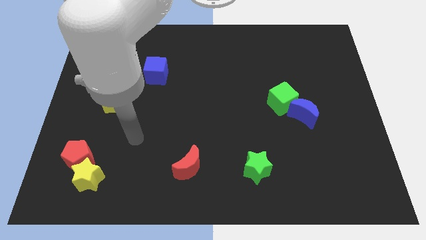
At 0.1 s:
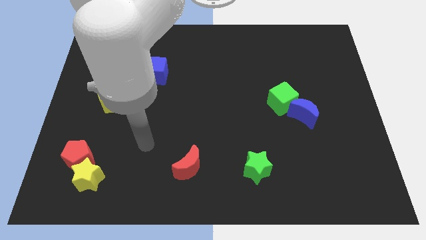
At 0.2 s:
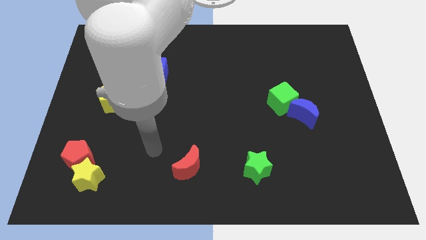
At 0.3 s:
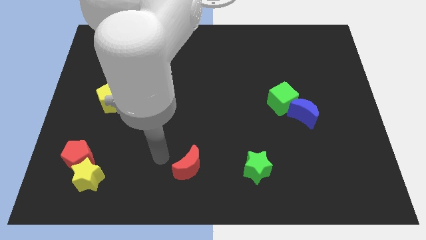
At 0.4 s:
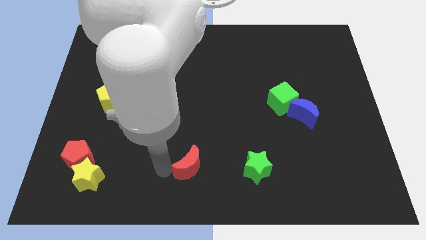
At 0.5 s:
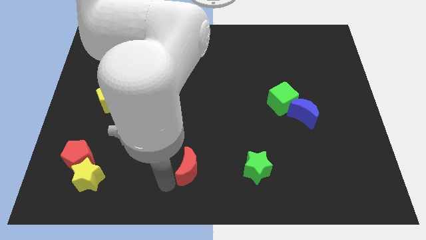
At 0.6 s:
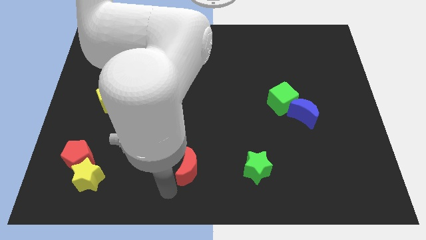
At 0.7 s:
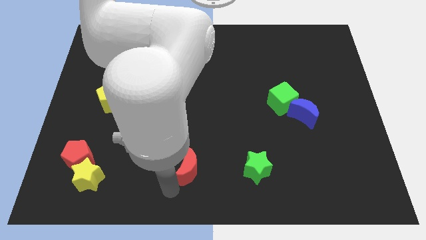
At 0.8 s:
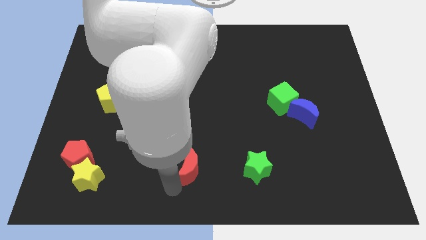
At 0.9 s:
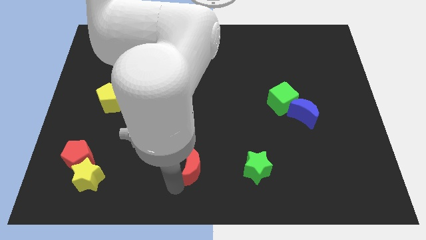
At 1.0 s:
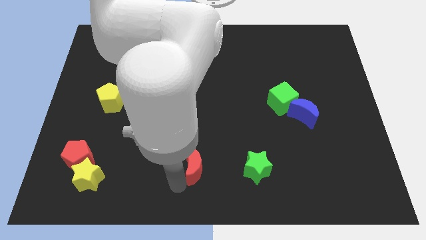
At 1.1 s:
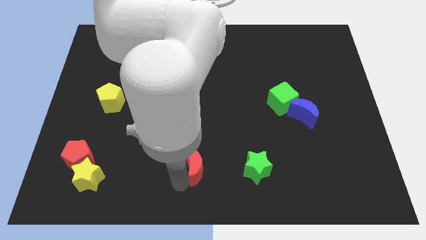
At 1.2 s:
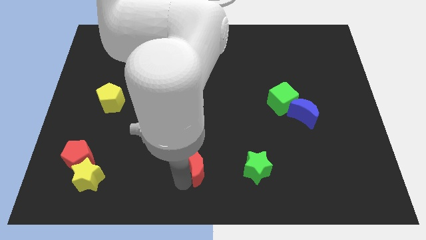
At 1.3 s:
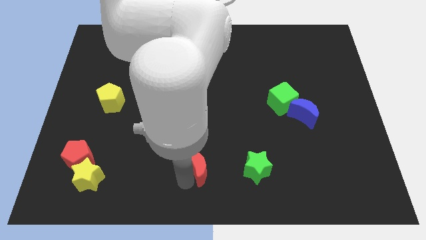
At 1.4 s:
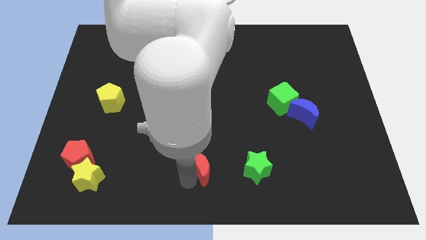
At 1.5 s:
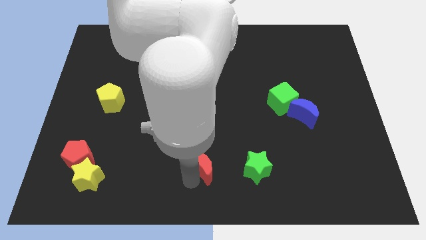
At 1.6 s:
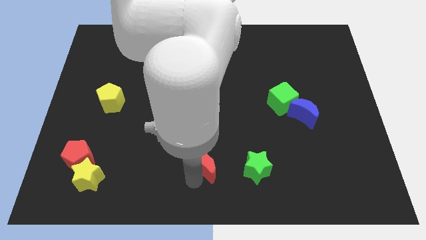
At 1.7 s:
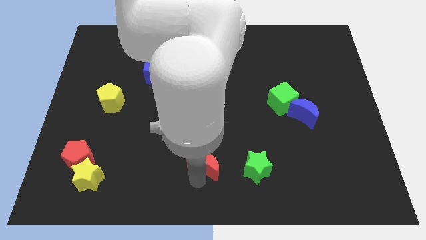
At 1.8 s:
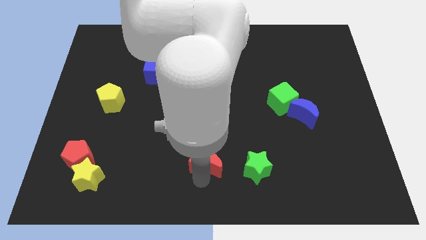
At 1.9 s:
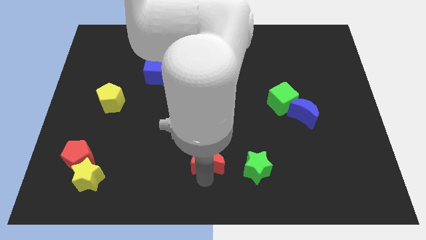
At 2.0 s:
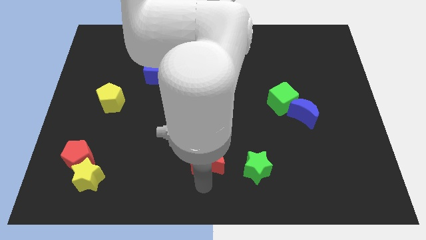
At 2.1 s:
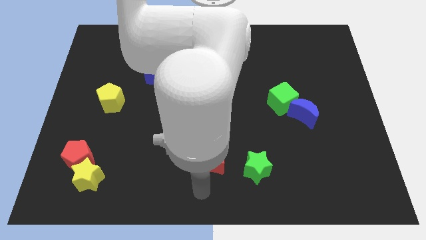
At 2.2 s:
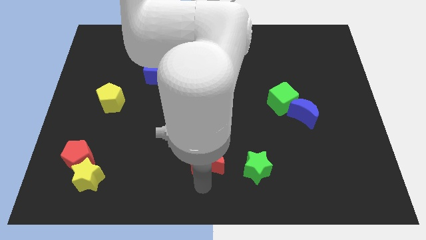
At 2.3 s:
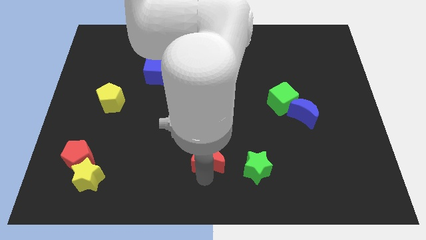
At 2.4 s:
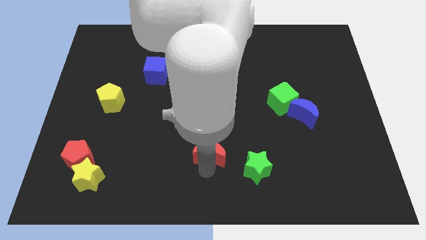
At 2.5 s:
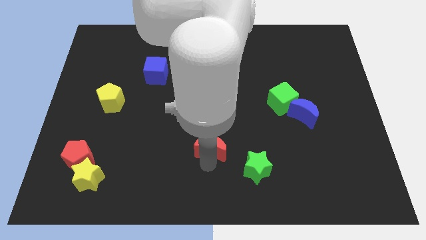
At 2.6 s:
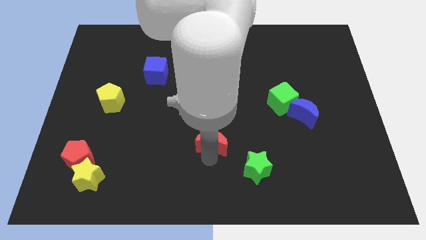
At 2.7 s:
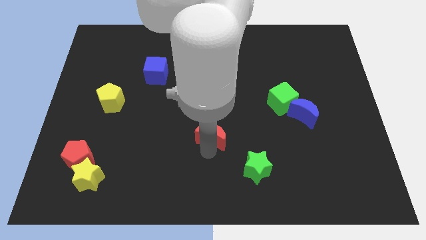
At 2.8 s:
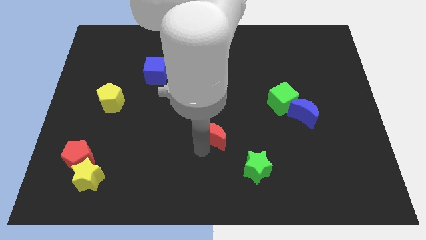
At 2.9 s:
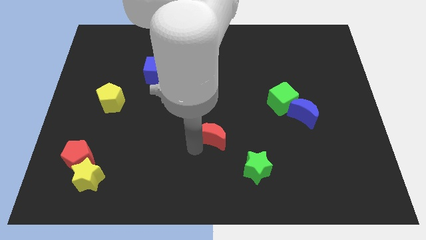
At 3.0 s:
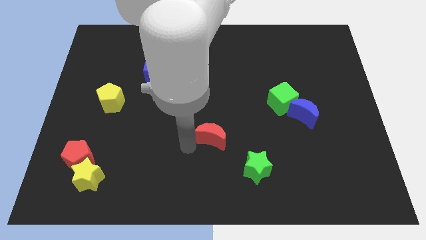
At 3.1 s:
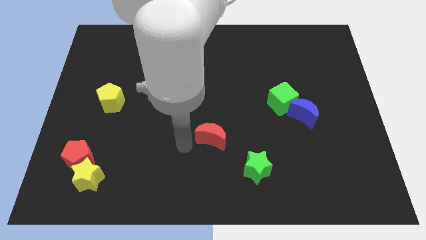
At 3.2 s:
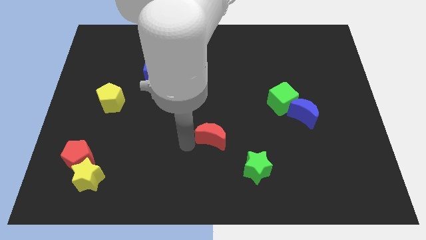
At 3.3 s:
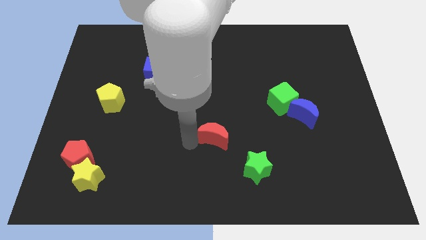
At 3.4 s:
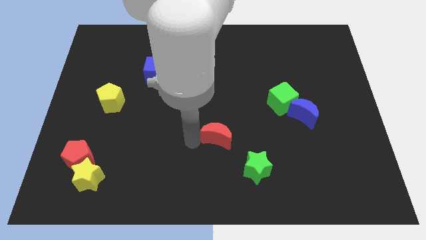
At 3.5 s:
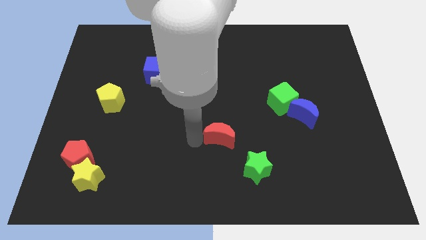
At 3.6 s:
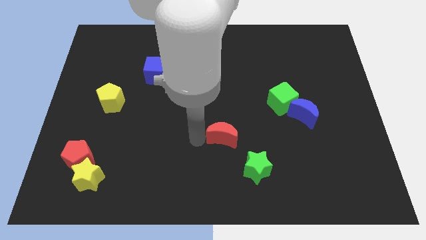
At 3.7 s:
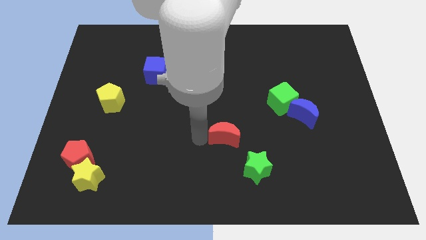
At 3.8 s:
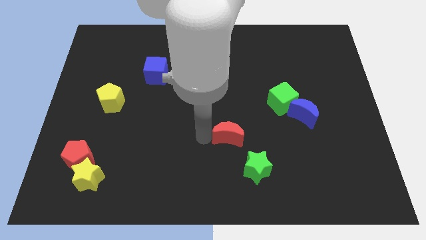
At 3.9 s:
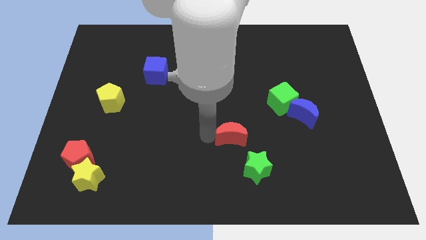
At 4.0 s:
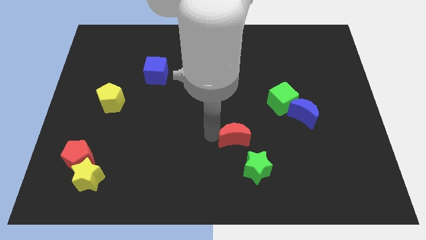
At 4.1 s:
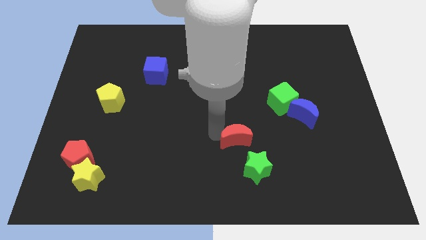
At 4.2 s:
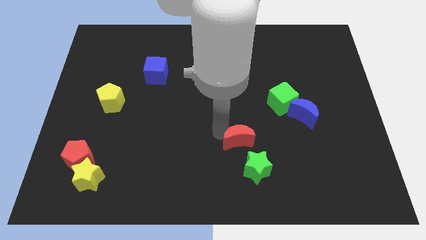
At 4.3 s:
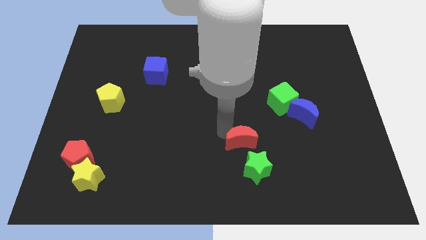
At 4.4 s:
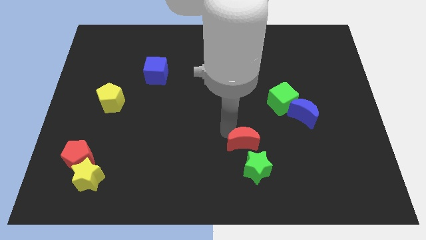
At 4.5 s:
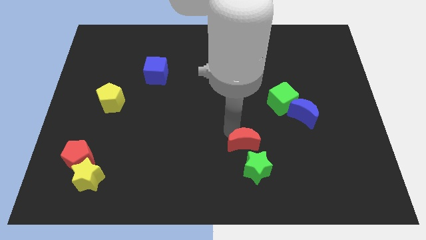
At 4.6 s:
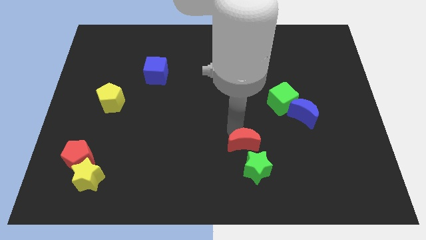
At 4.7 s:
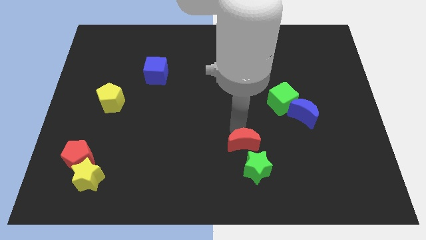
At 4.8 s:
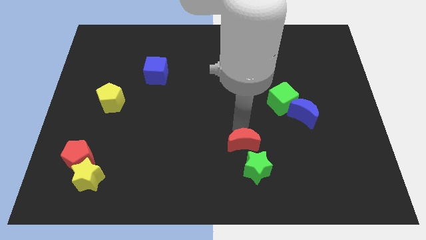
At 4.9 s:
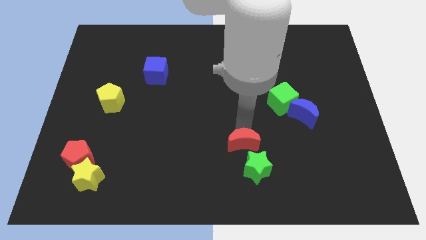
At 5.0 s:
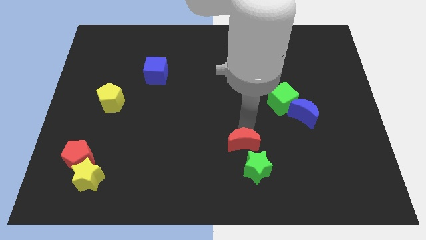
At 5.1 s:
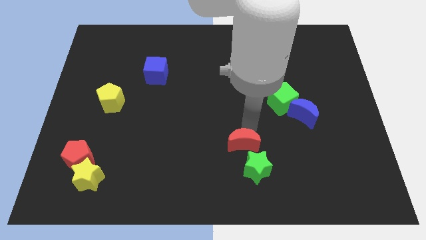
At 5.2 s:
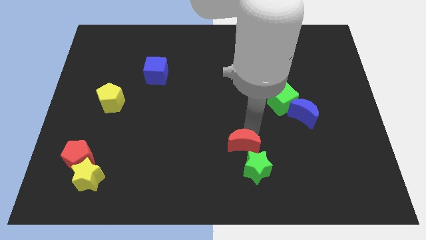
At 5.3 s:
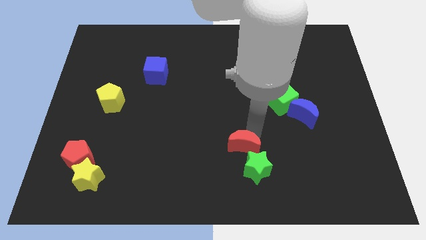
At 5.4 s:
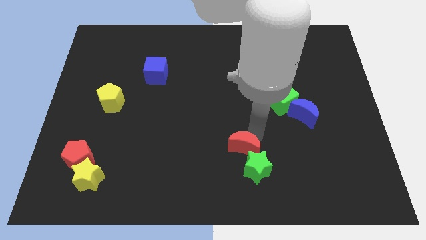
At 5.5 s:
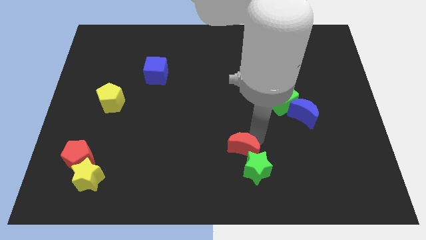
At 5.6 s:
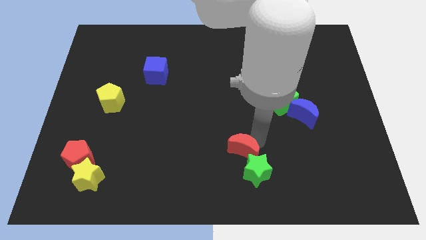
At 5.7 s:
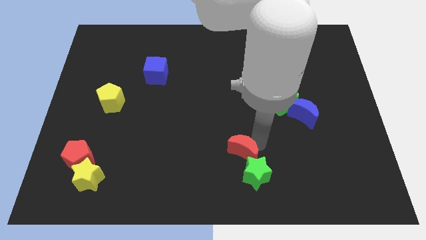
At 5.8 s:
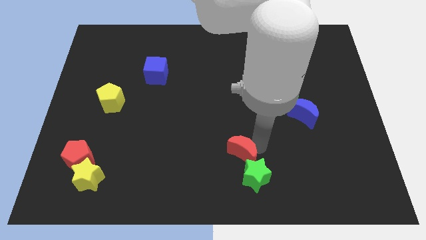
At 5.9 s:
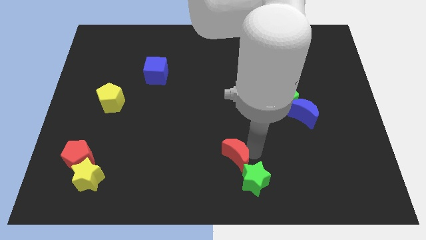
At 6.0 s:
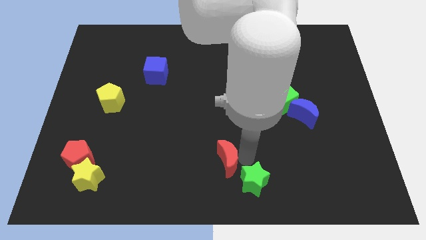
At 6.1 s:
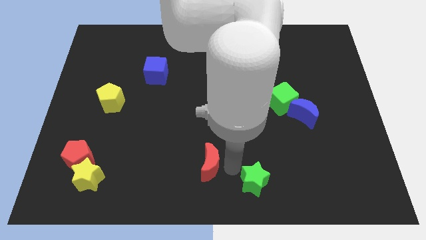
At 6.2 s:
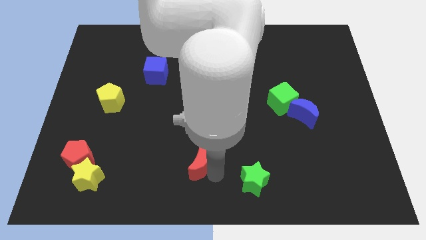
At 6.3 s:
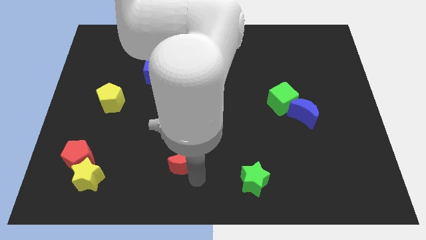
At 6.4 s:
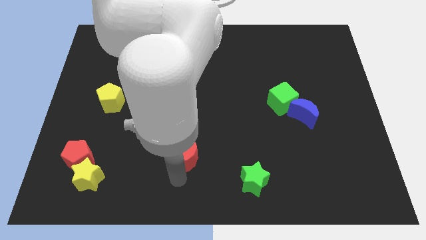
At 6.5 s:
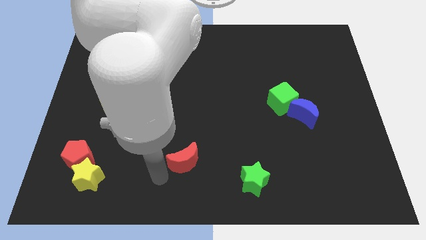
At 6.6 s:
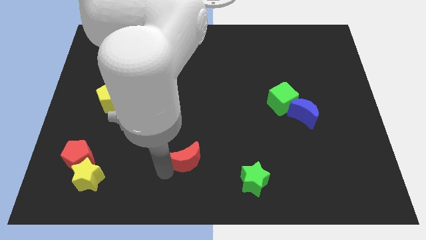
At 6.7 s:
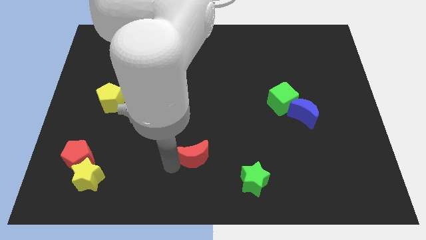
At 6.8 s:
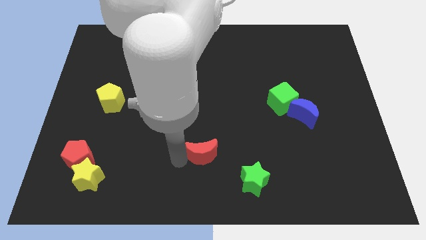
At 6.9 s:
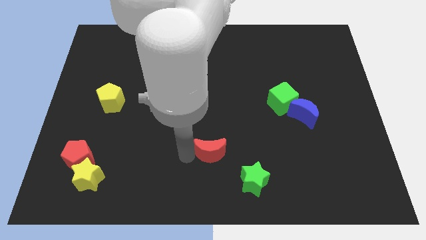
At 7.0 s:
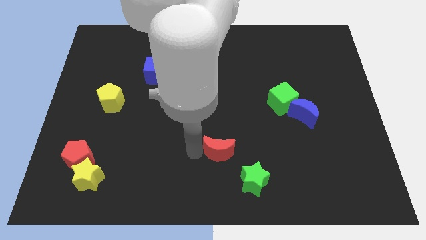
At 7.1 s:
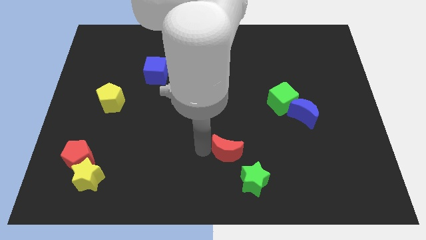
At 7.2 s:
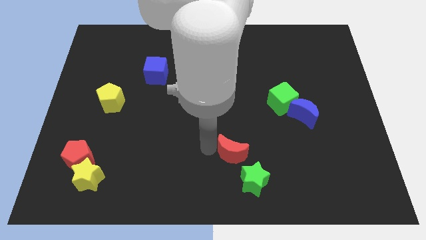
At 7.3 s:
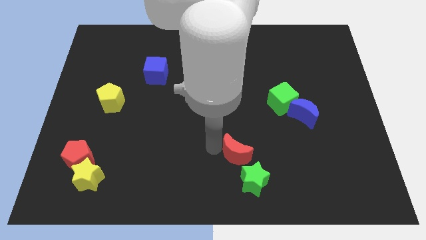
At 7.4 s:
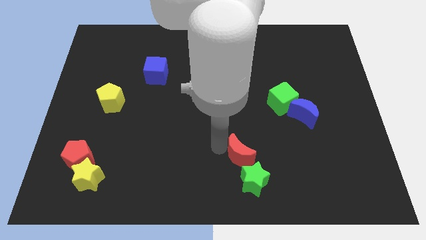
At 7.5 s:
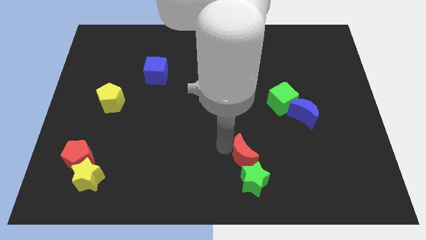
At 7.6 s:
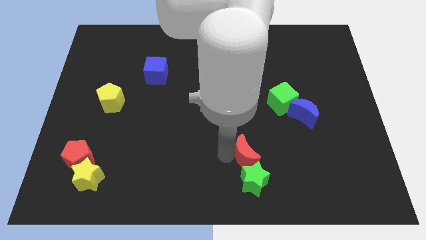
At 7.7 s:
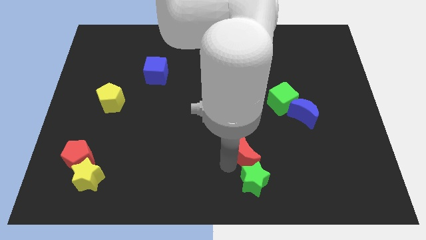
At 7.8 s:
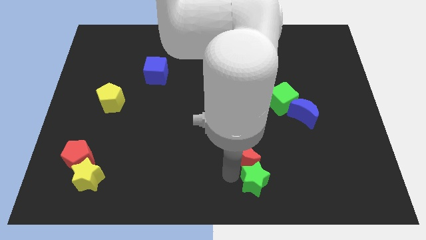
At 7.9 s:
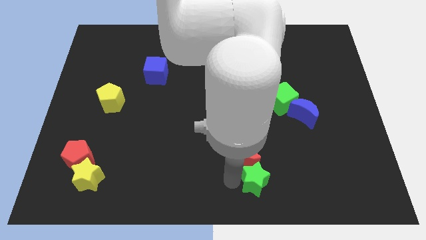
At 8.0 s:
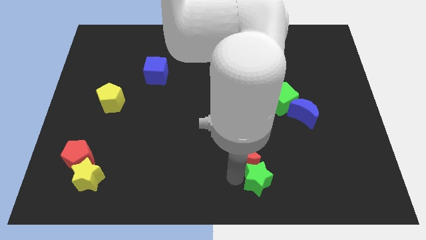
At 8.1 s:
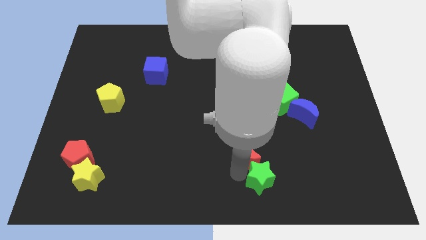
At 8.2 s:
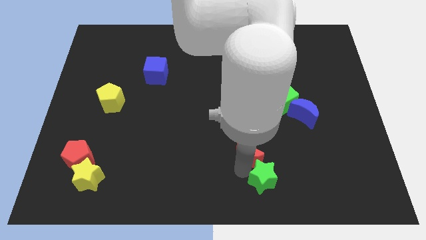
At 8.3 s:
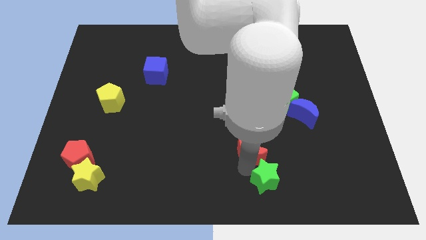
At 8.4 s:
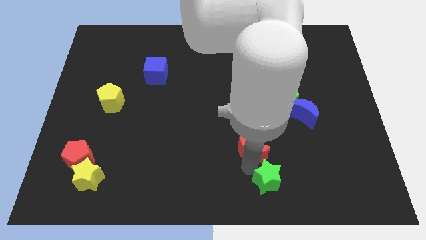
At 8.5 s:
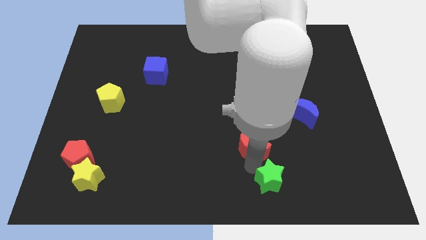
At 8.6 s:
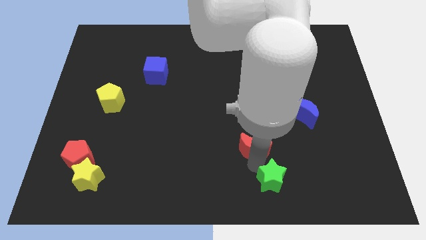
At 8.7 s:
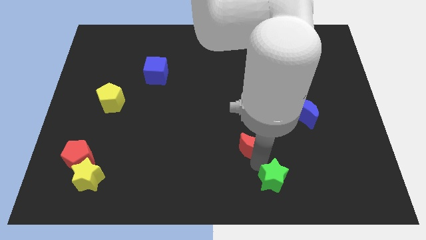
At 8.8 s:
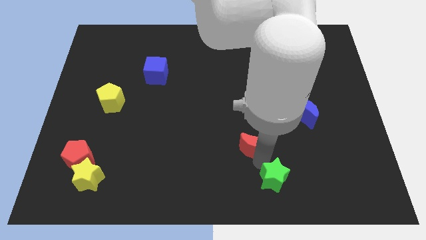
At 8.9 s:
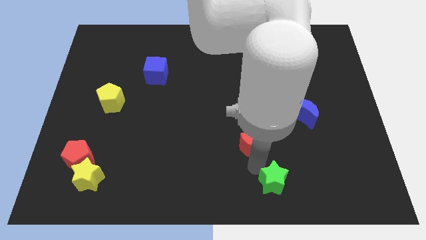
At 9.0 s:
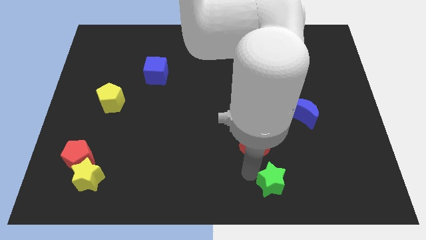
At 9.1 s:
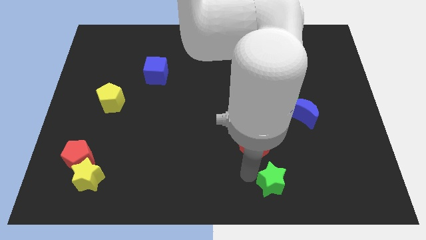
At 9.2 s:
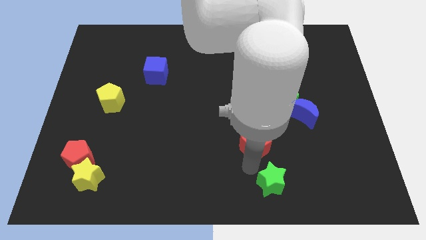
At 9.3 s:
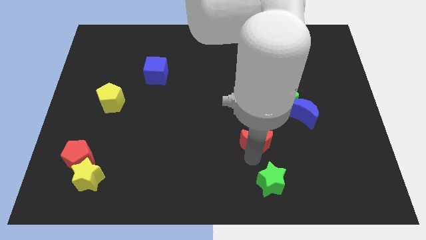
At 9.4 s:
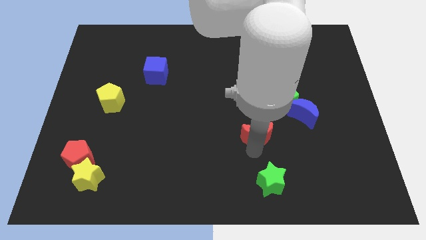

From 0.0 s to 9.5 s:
slide the red moon to the bottom left of the green cube
